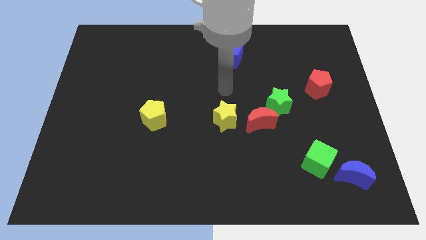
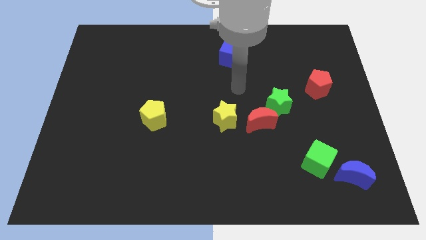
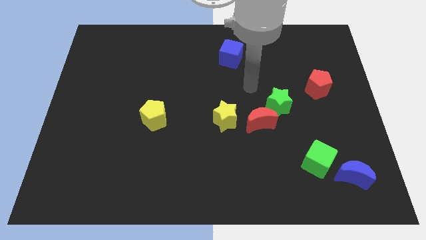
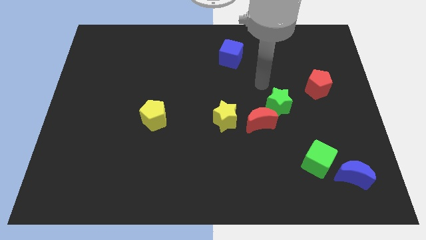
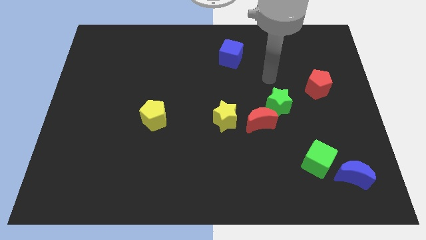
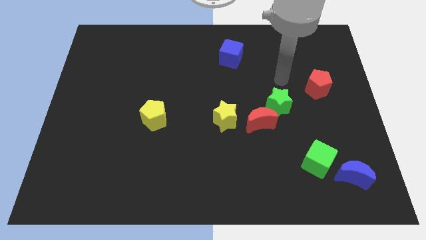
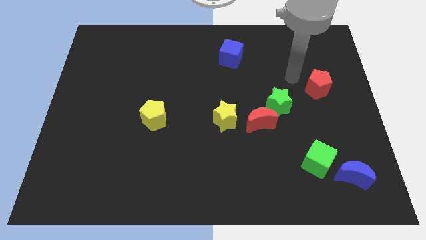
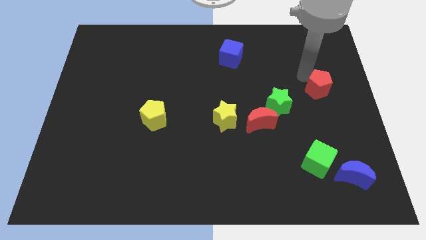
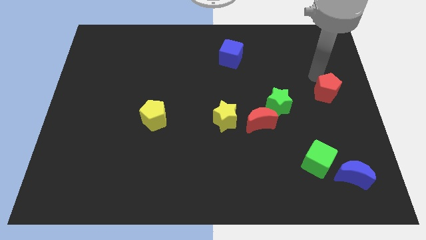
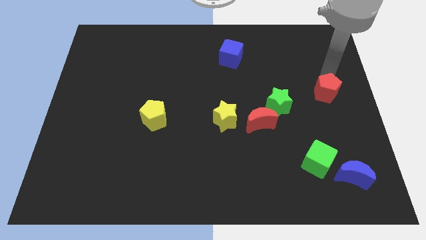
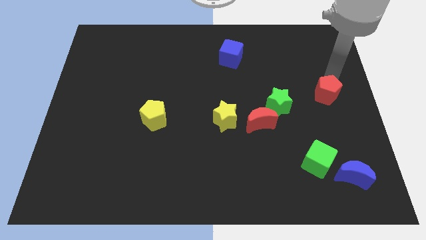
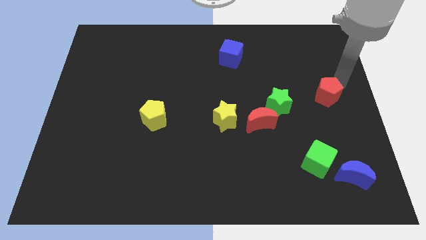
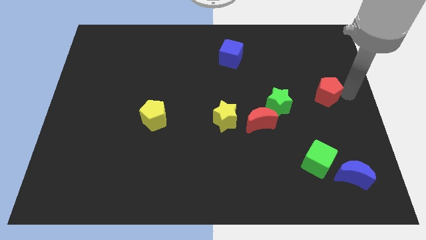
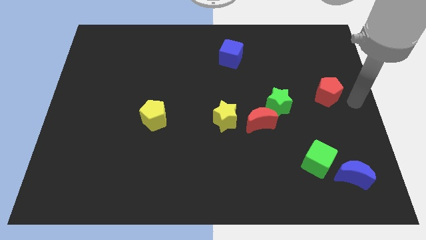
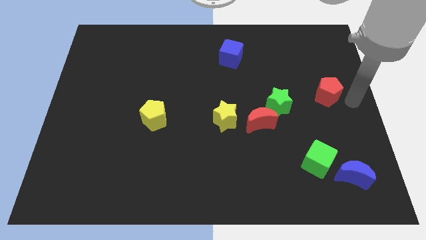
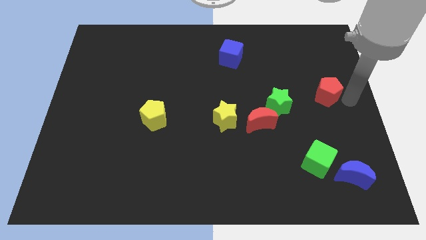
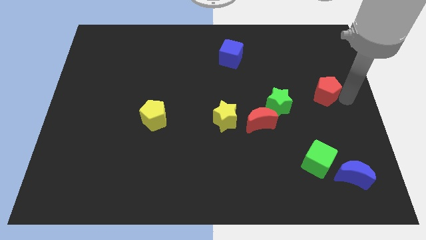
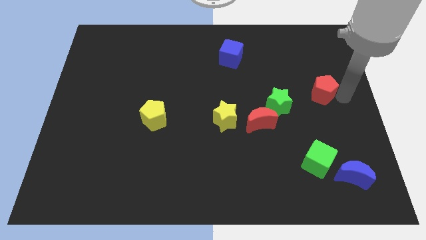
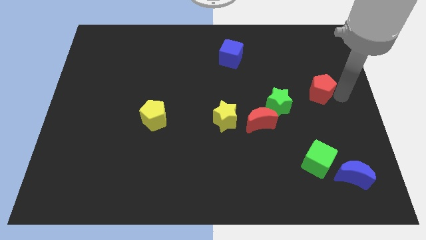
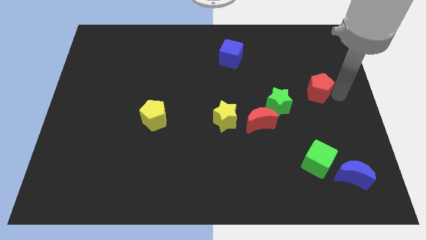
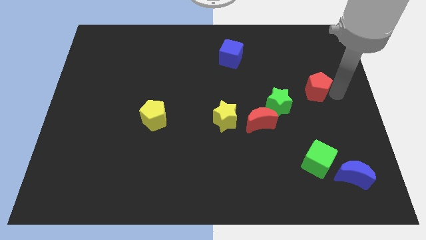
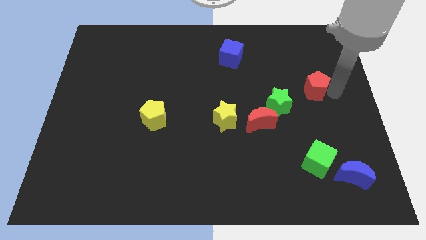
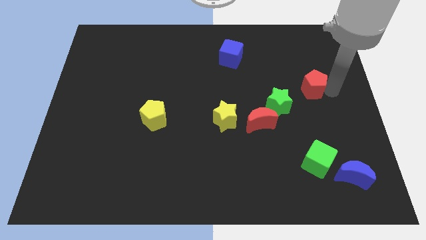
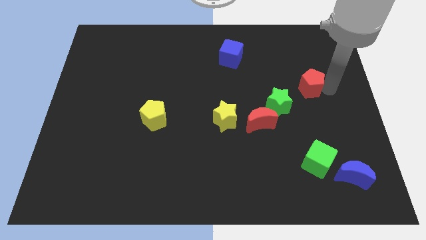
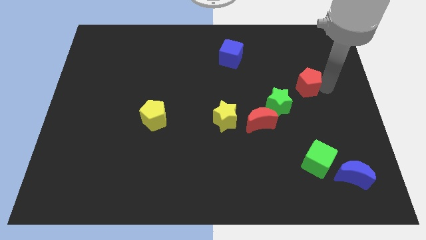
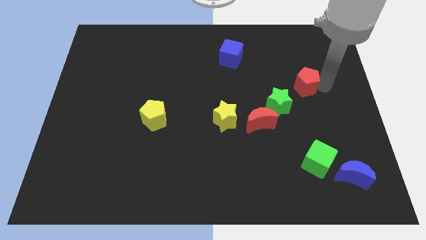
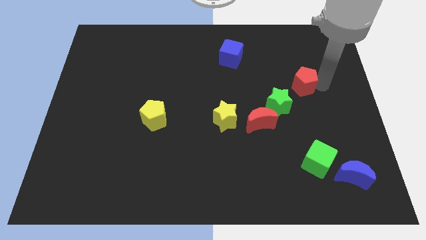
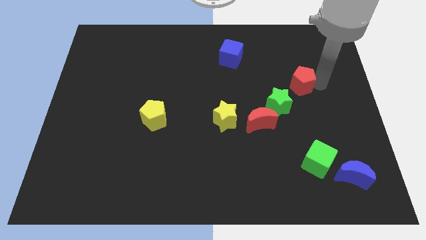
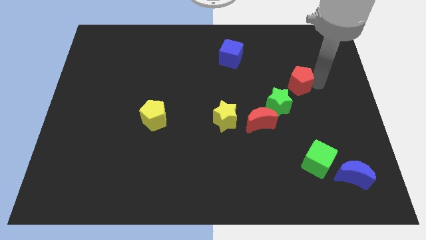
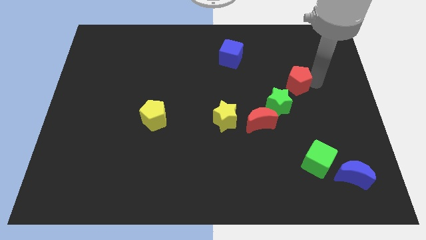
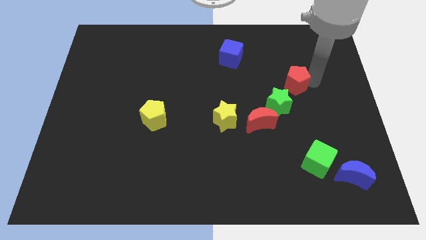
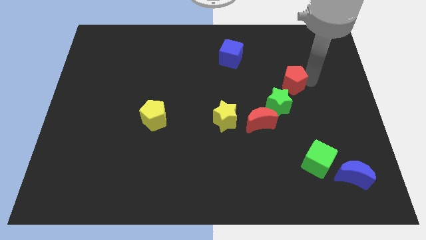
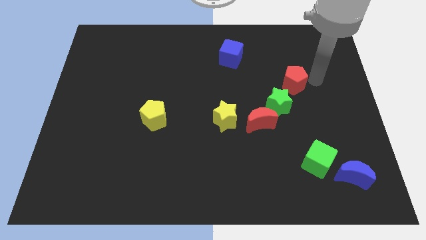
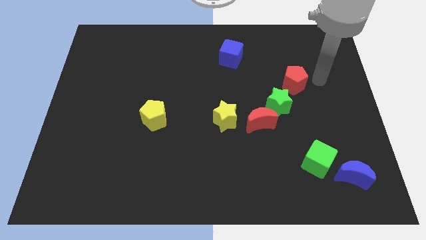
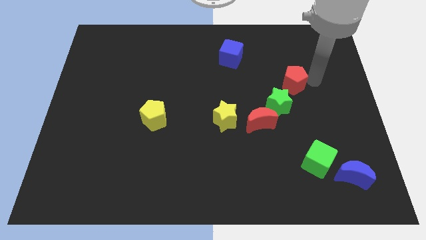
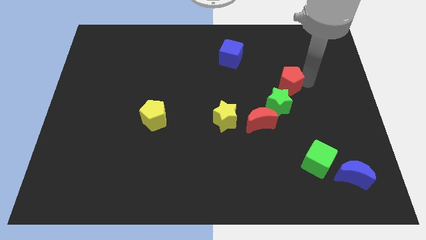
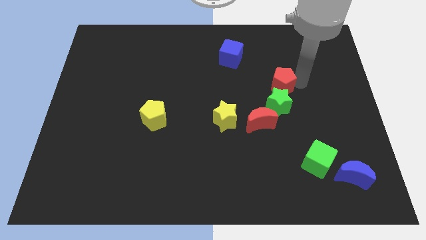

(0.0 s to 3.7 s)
move the red pentagon to the left a little bit

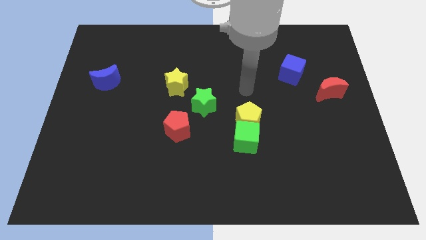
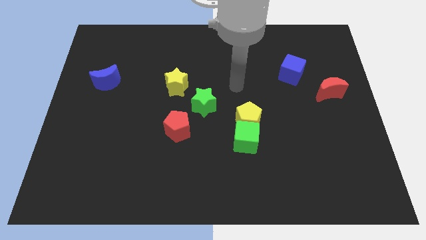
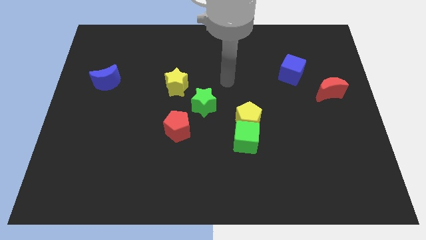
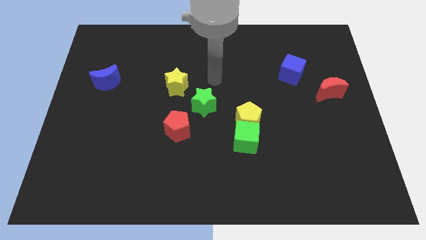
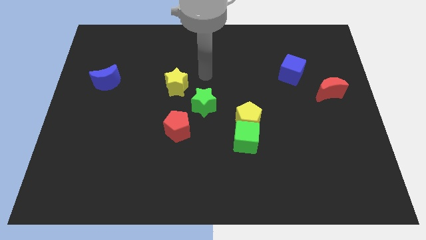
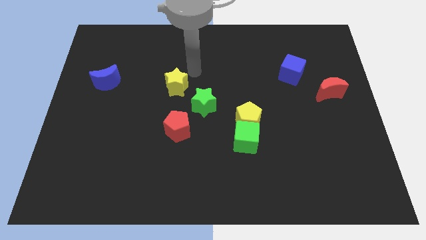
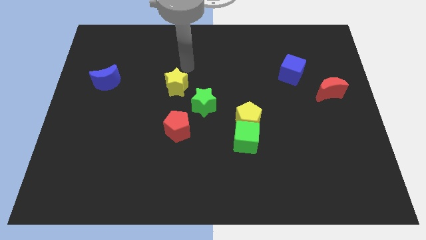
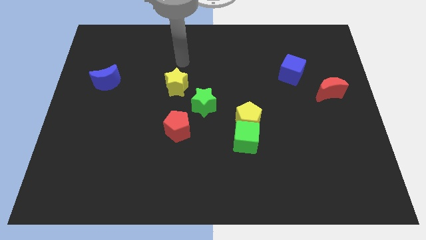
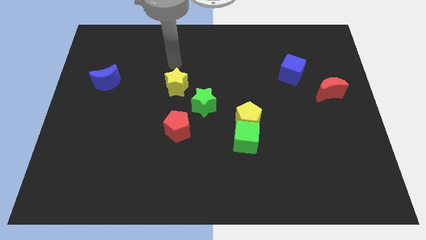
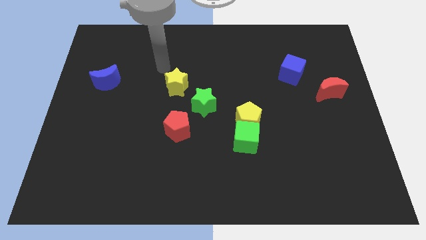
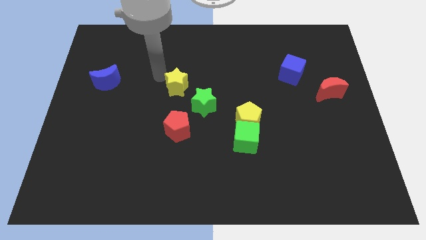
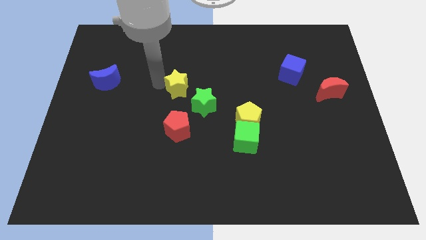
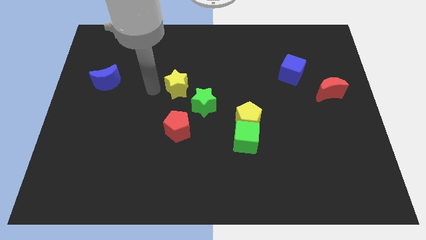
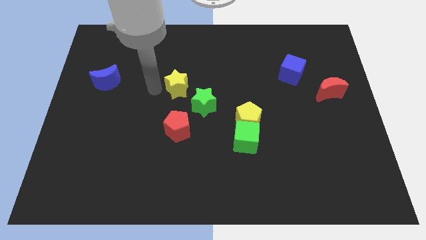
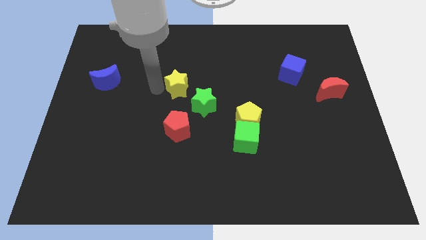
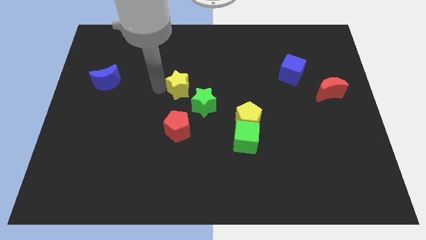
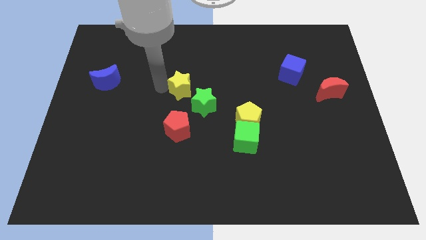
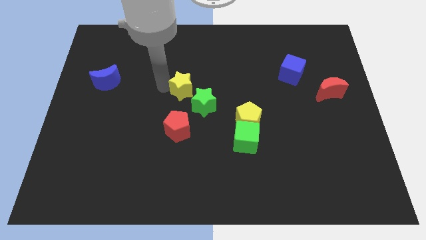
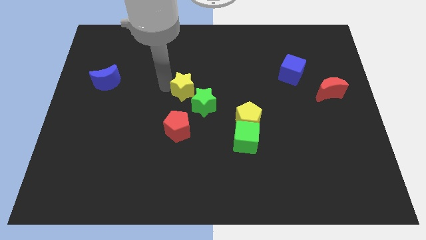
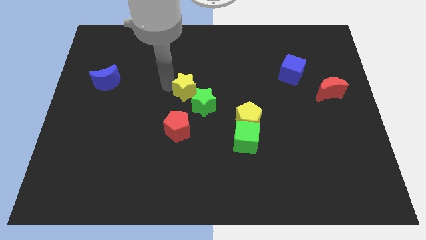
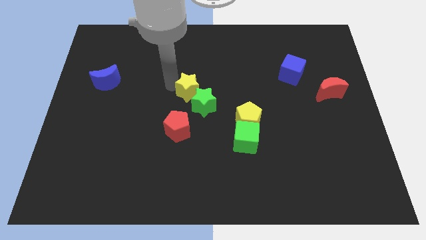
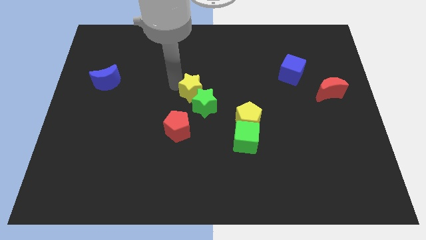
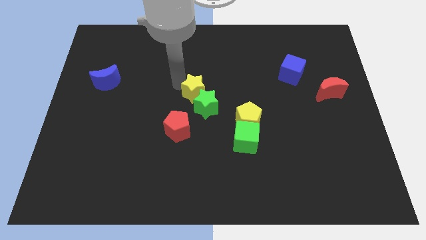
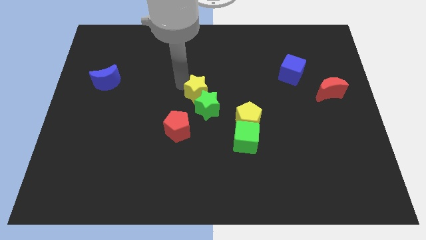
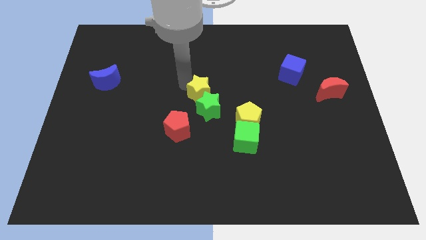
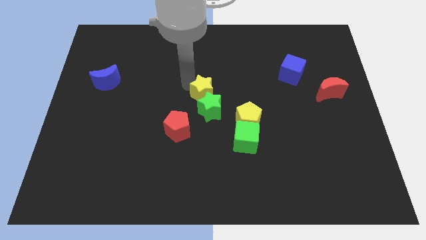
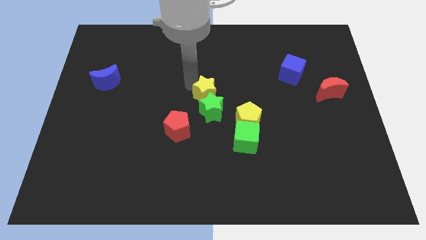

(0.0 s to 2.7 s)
slide the yellow star a little right

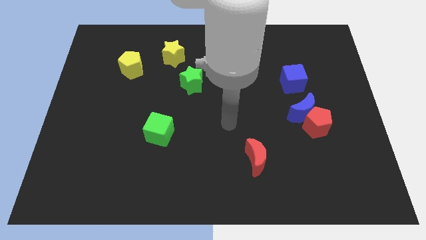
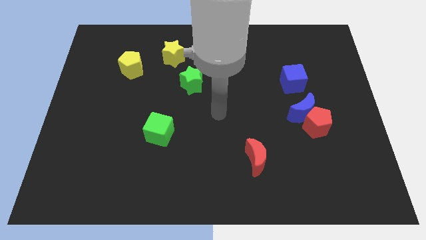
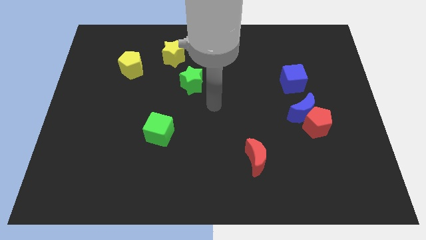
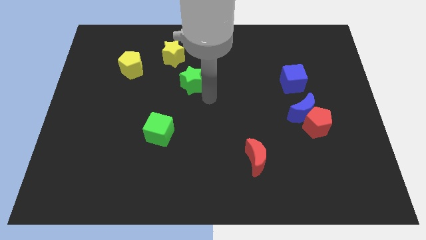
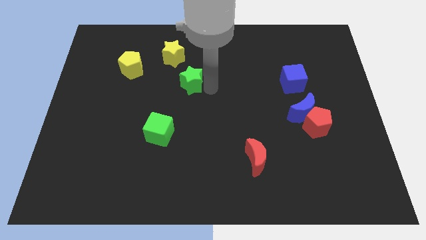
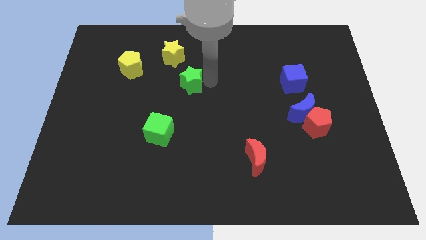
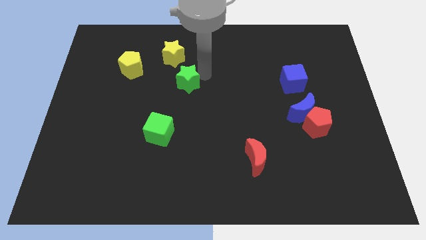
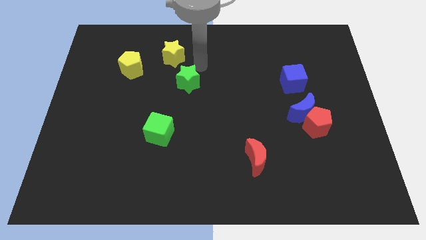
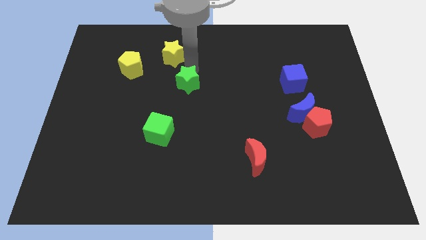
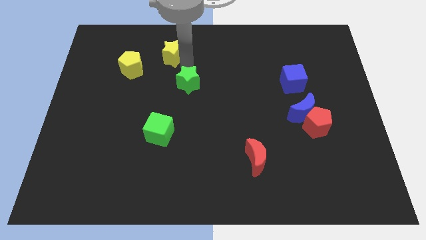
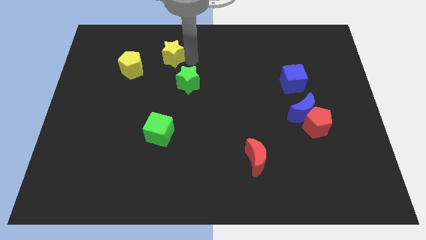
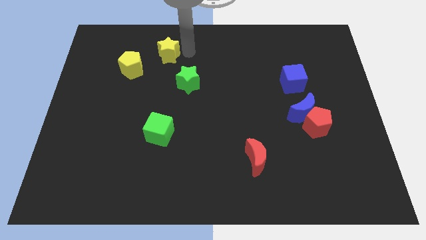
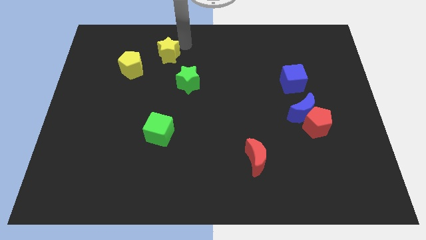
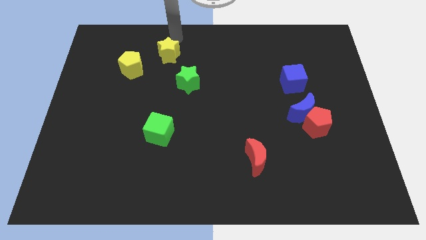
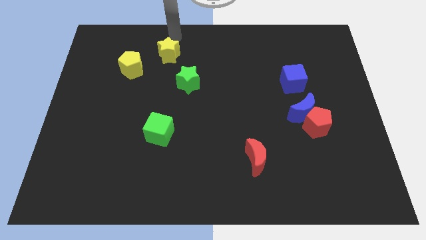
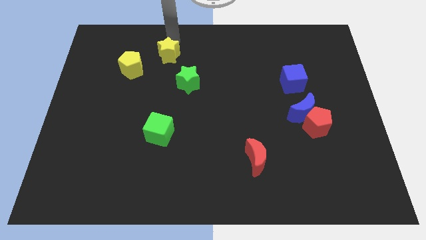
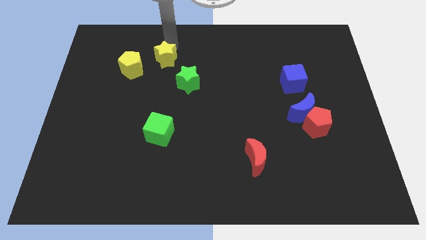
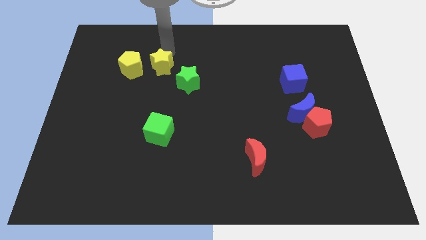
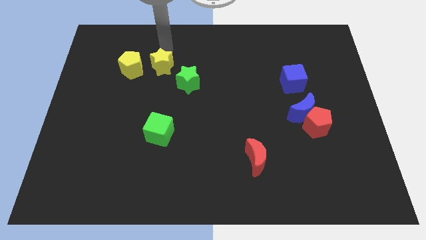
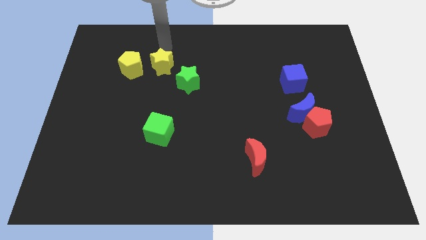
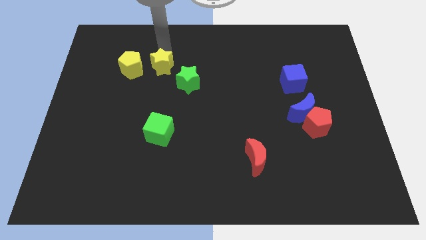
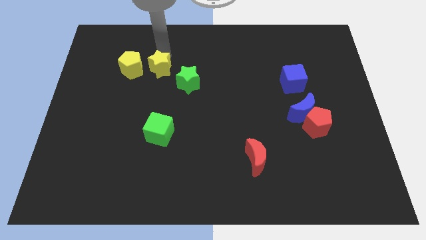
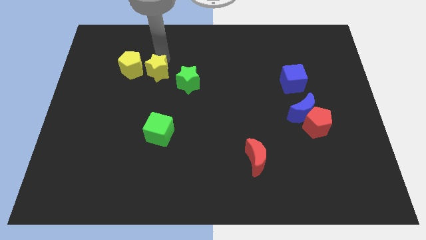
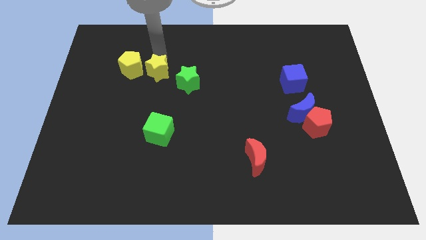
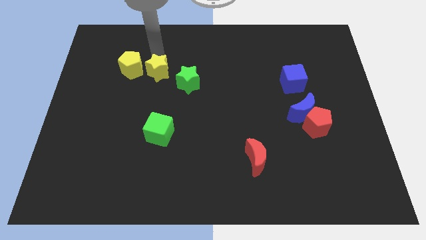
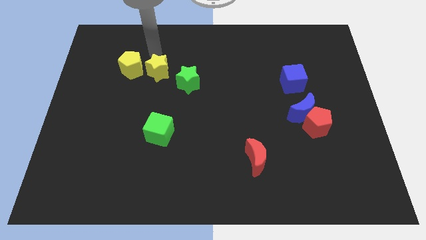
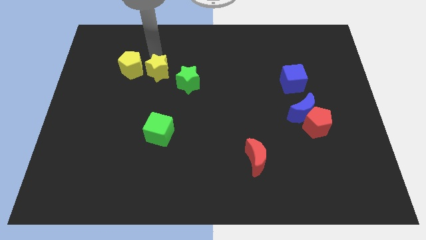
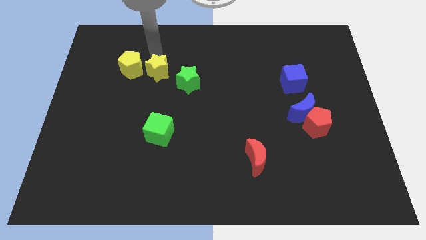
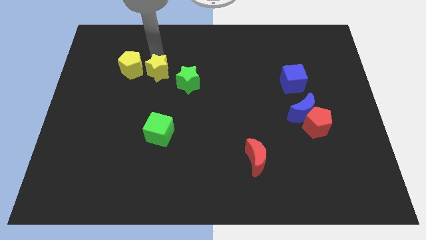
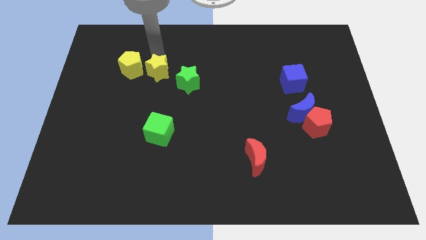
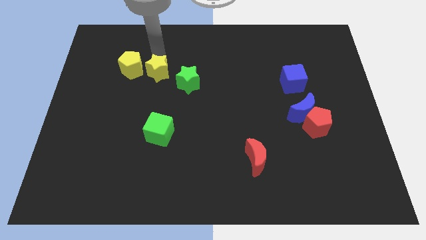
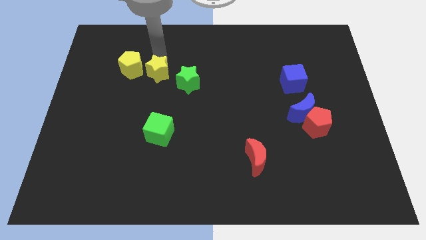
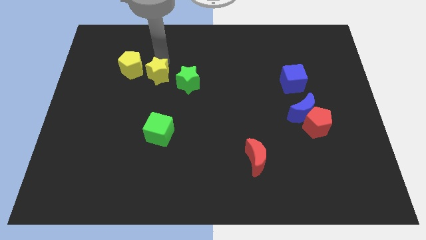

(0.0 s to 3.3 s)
move the yellow star a little bit downwards and to the left diagonally
